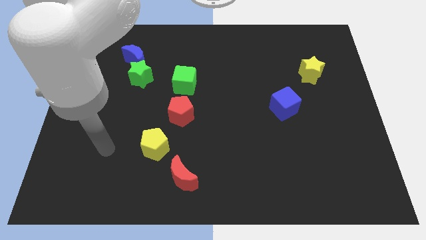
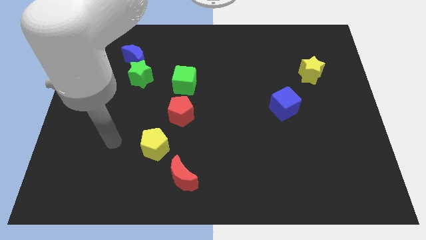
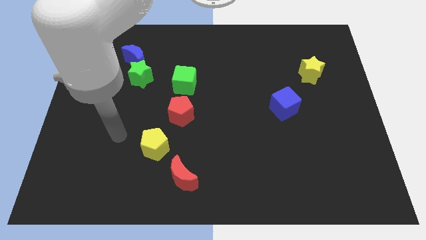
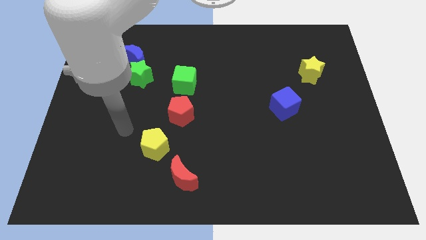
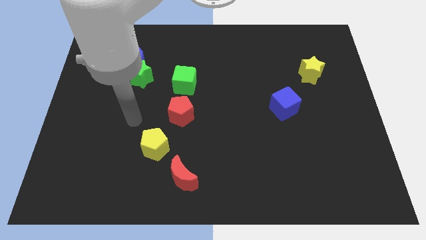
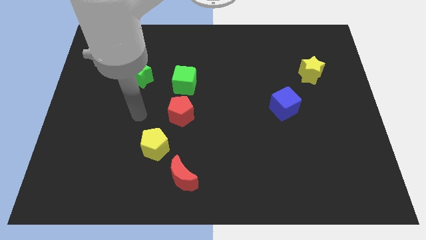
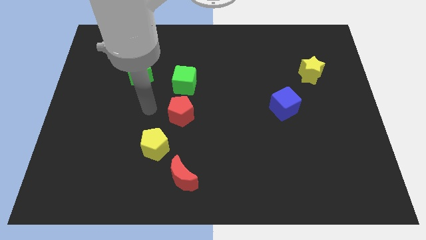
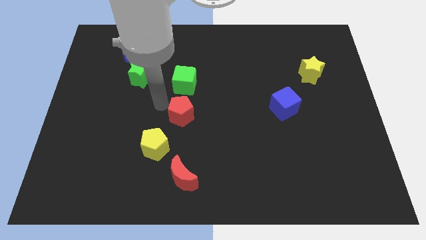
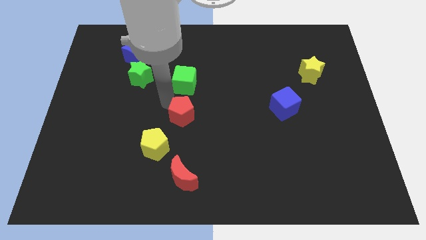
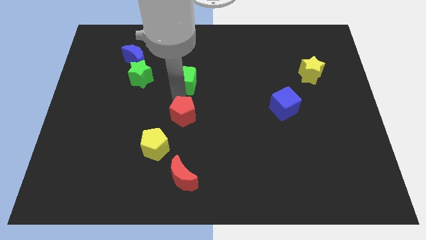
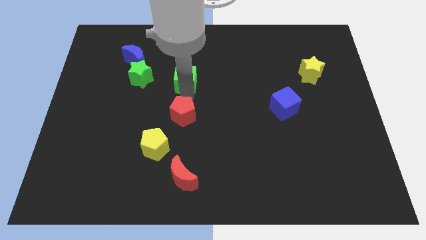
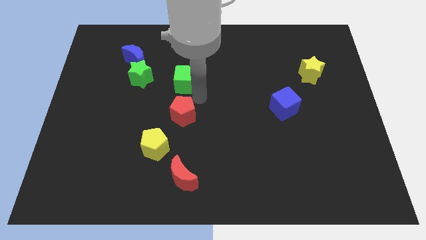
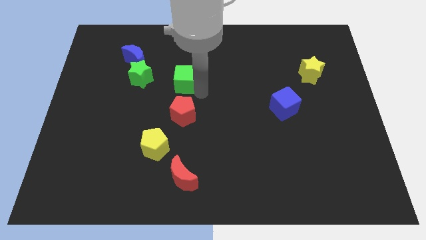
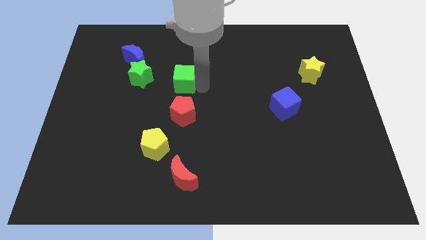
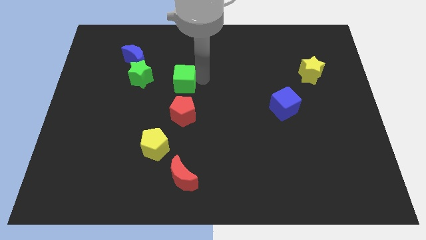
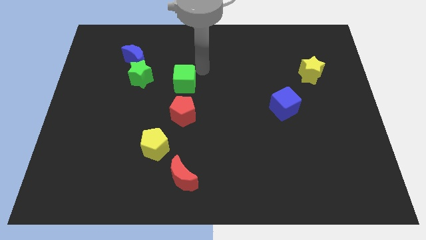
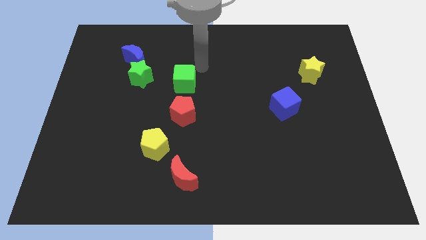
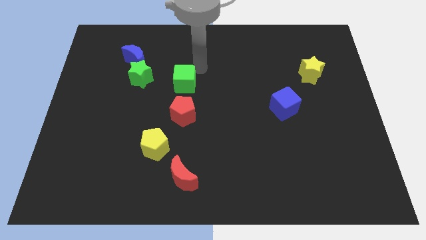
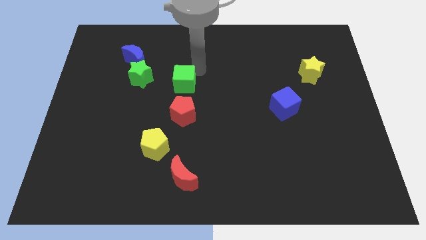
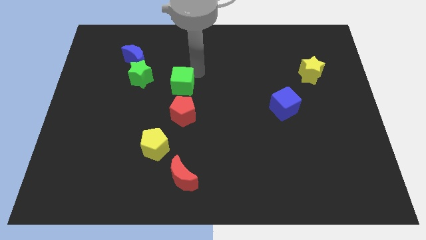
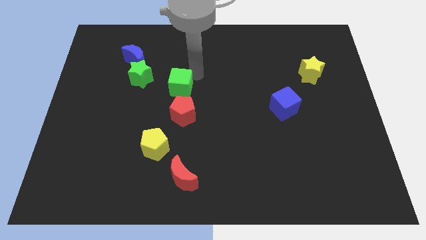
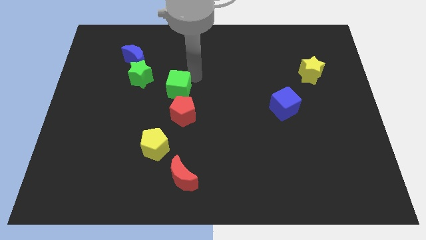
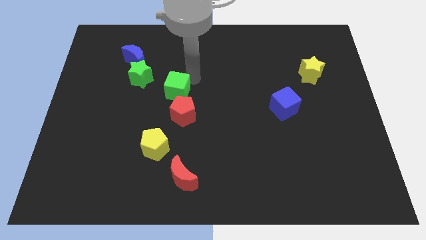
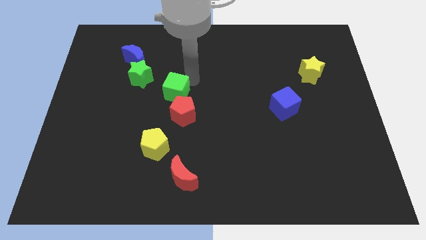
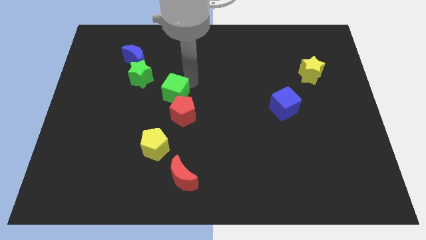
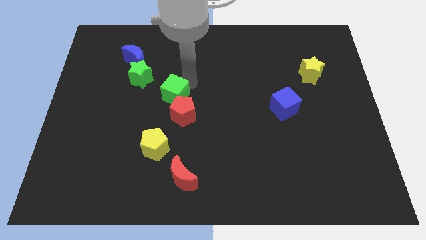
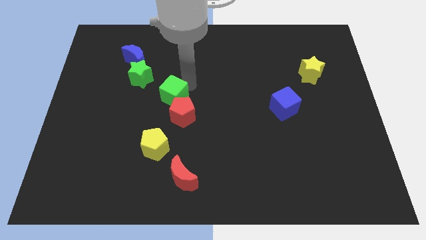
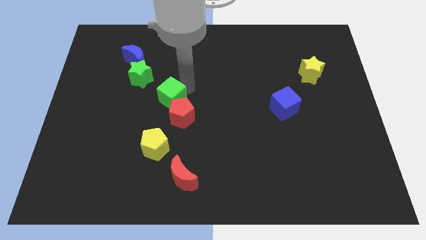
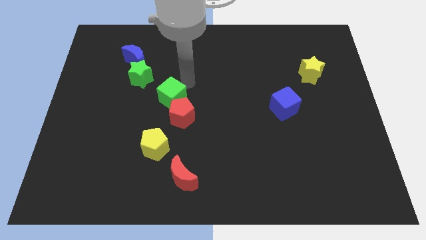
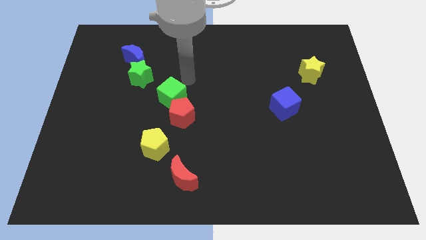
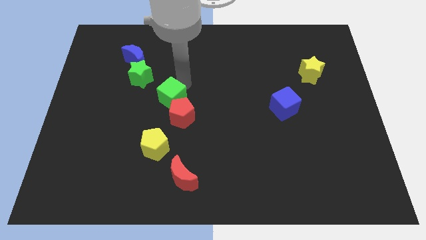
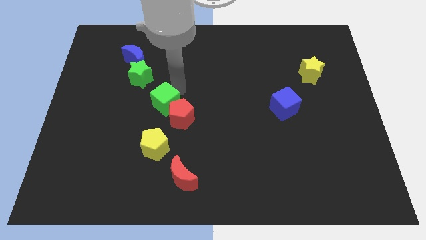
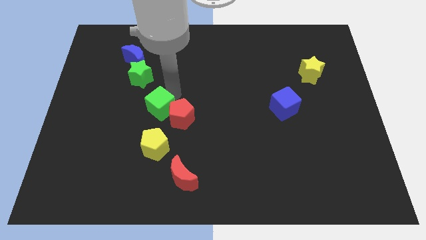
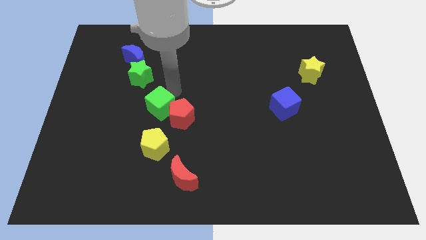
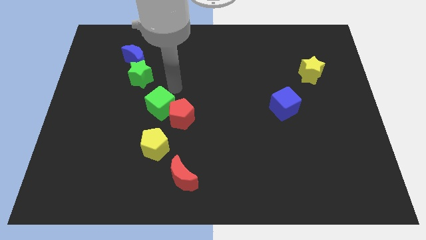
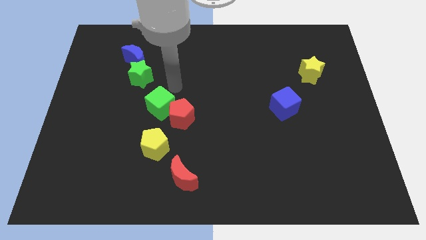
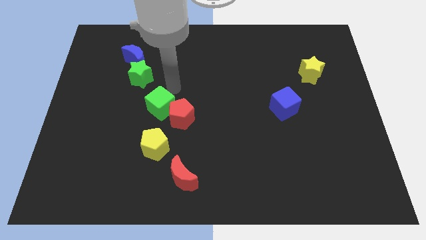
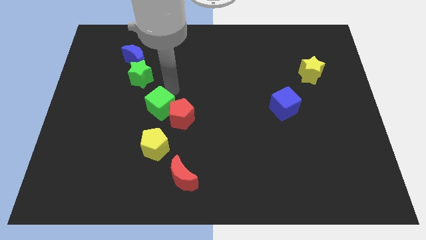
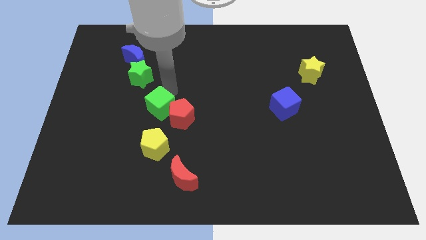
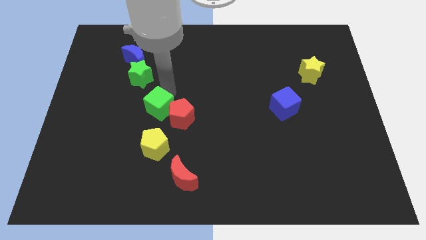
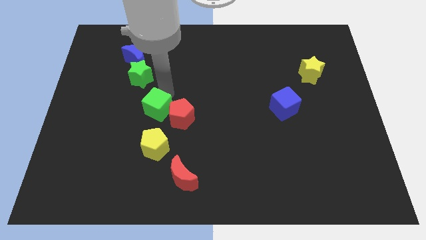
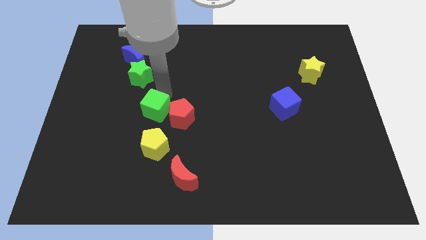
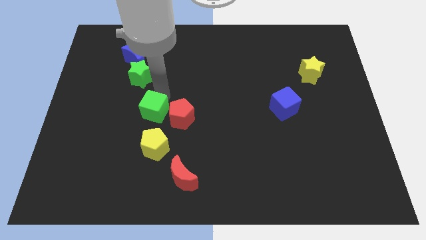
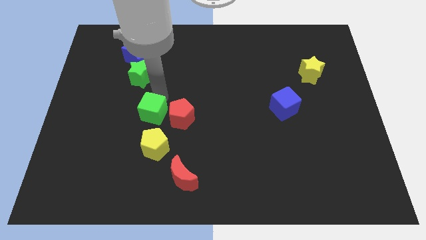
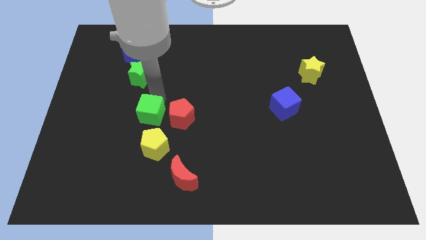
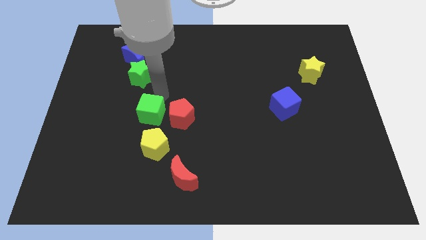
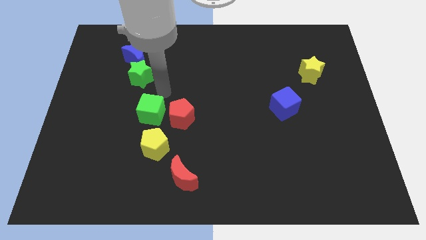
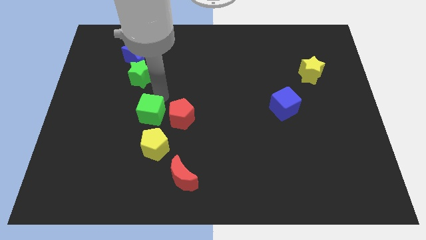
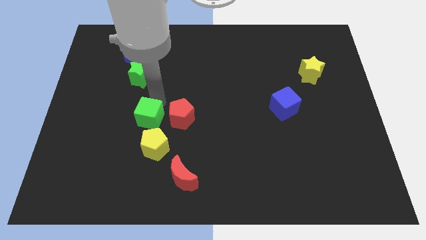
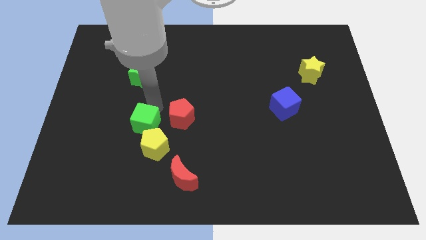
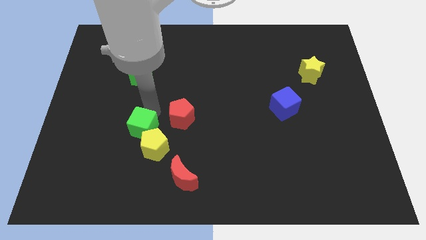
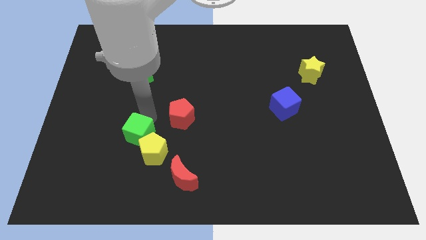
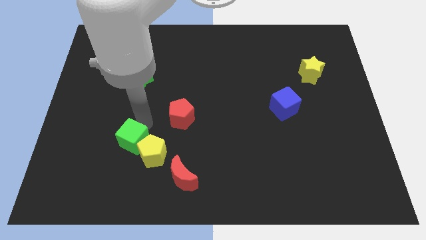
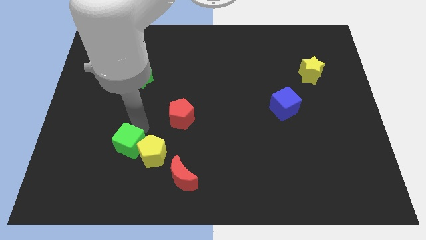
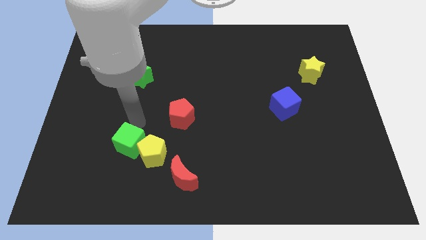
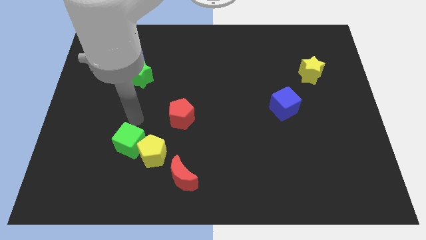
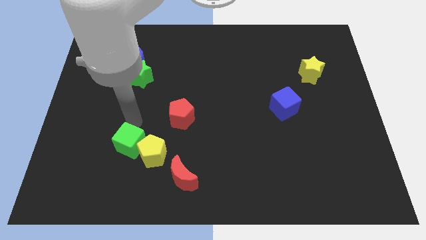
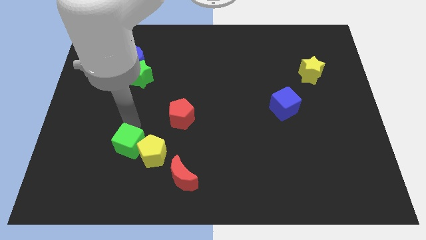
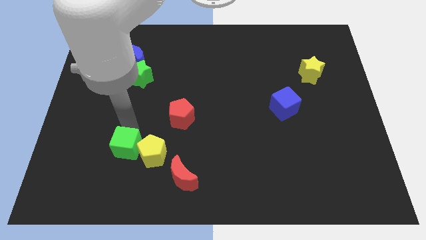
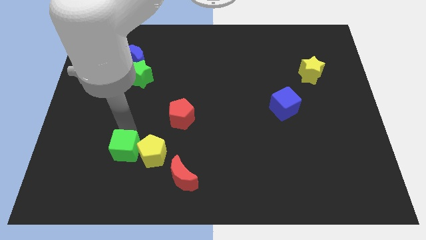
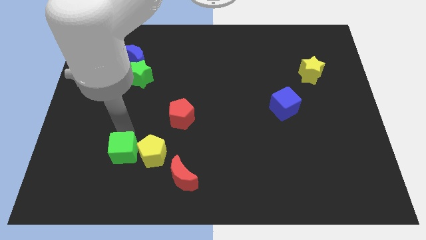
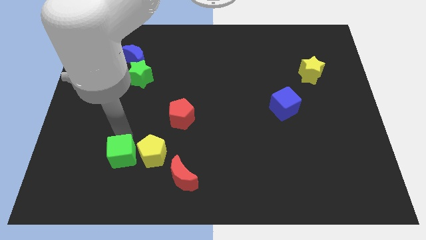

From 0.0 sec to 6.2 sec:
push the green cube to the bottom left side of the yellow pentagon

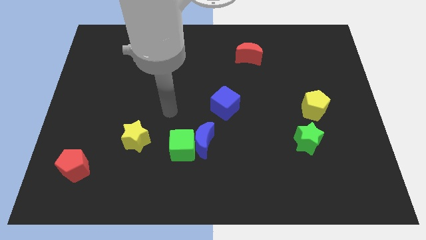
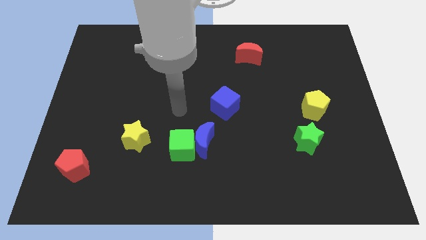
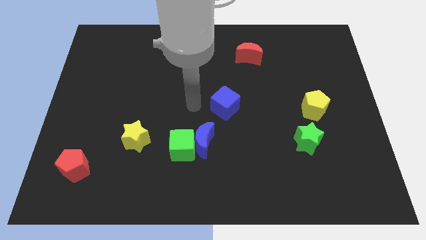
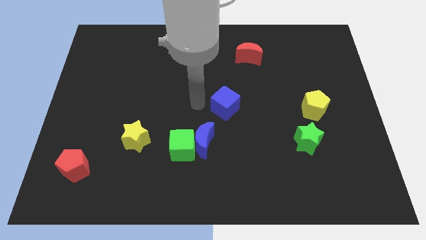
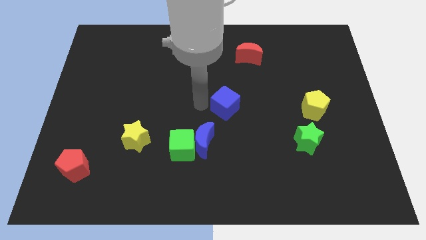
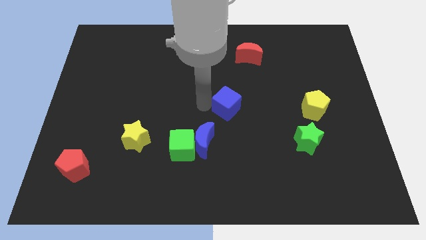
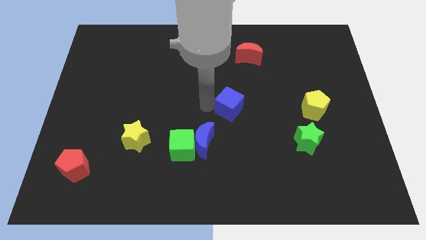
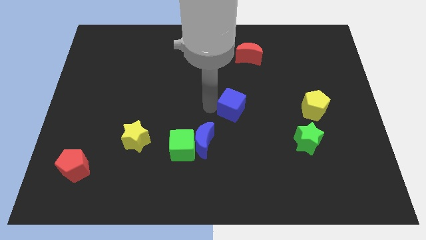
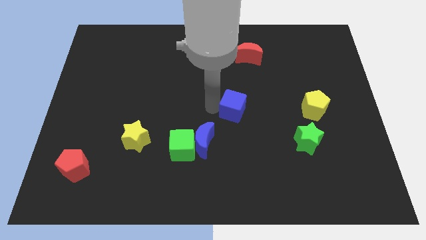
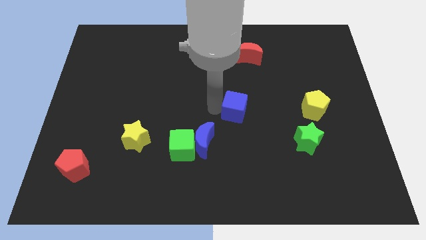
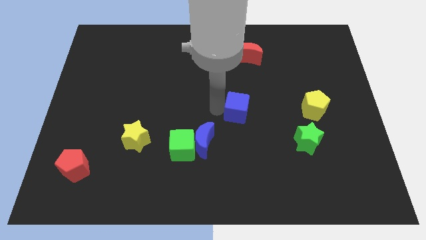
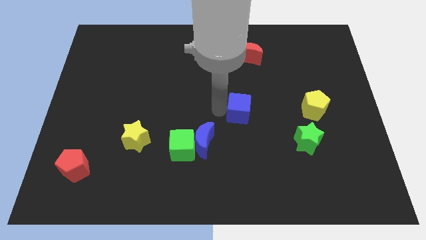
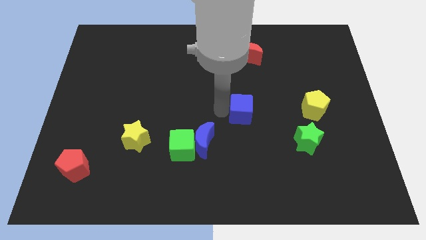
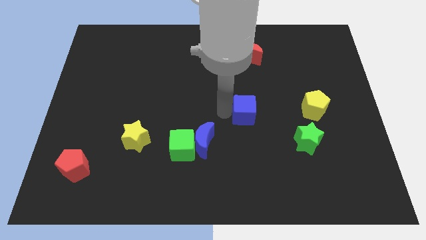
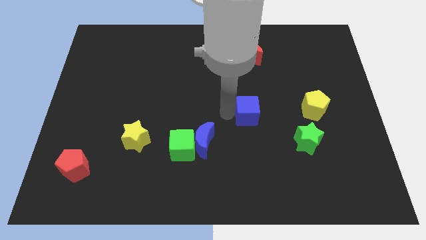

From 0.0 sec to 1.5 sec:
slide the blue cube to the left of the yellow pentagon

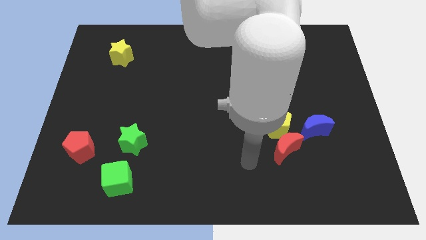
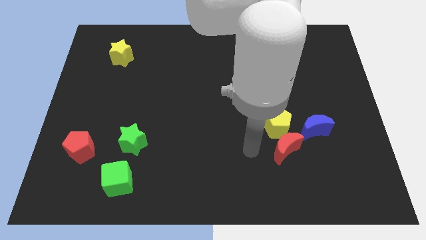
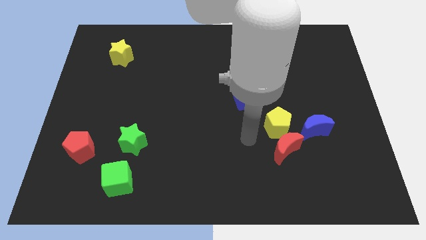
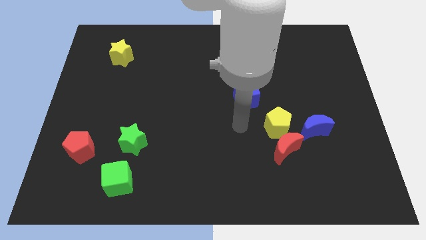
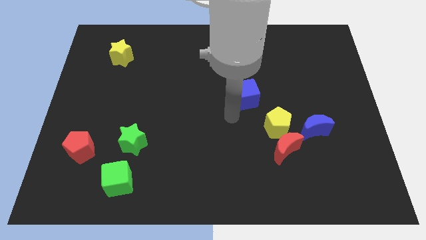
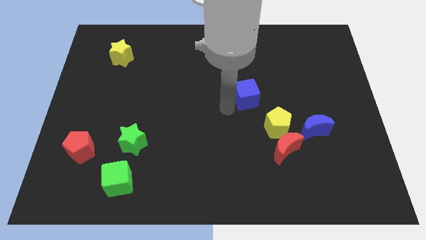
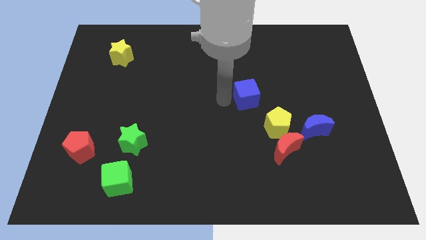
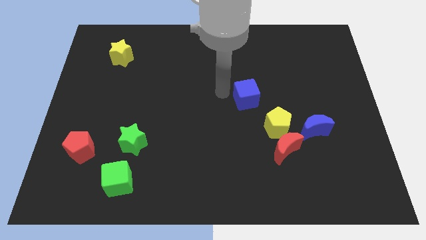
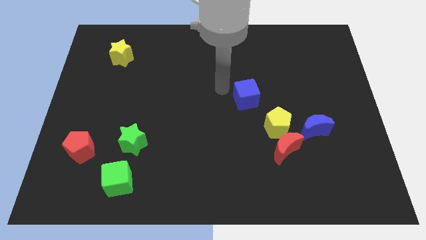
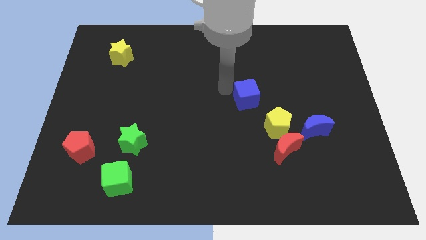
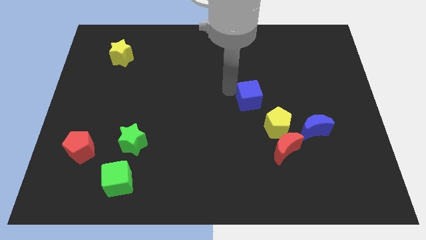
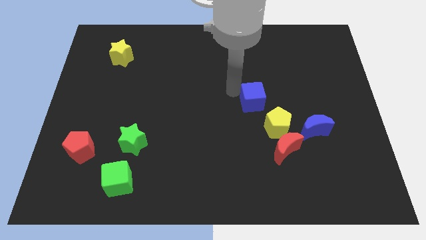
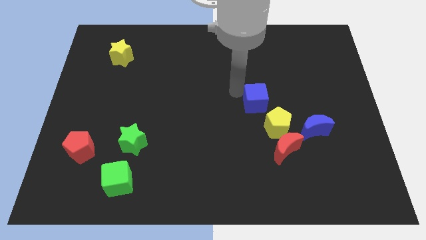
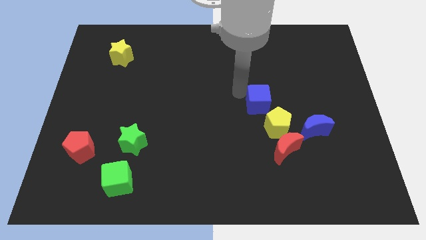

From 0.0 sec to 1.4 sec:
move the blue cube above the red moon
